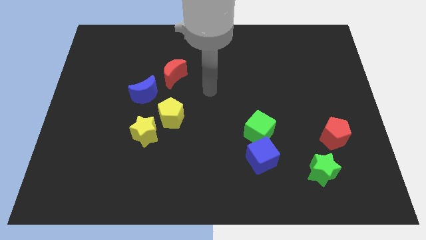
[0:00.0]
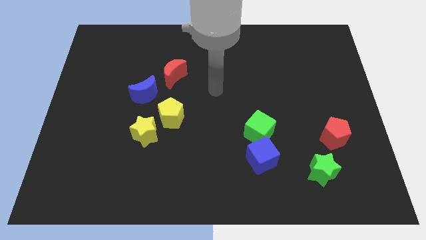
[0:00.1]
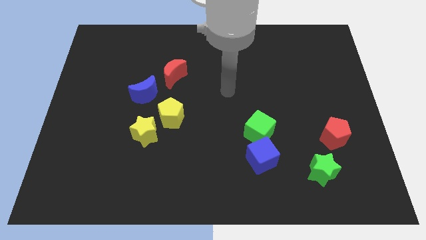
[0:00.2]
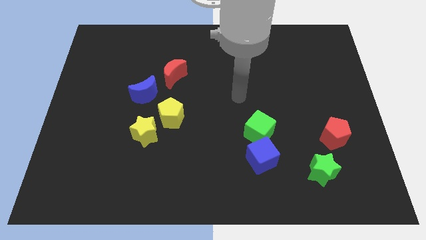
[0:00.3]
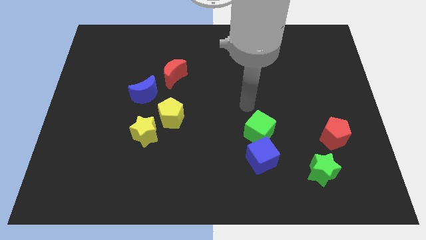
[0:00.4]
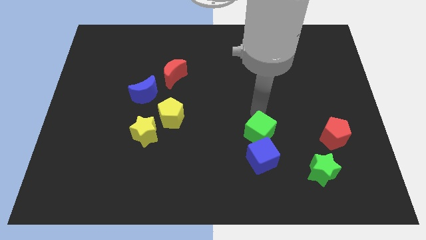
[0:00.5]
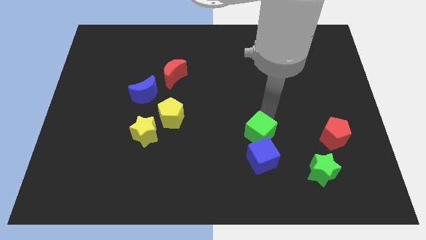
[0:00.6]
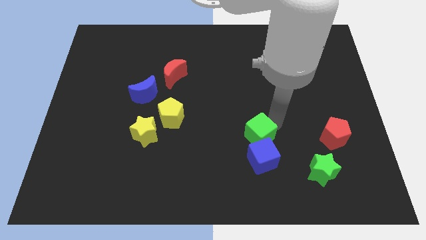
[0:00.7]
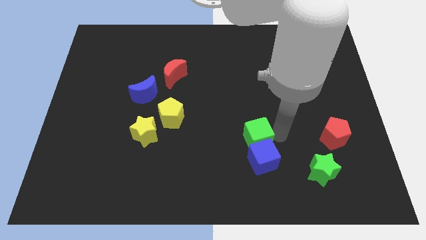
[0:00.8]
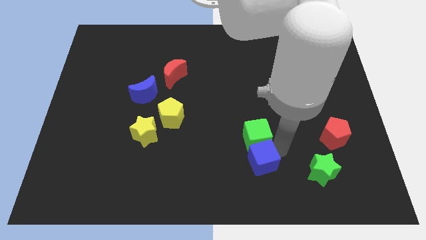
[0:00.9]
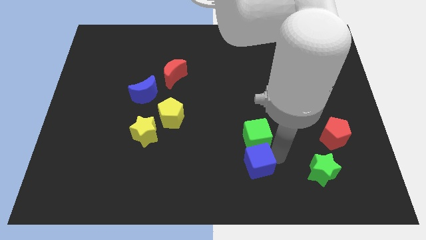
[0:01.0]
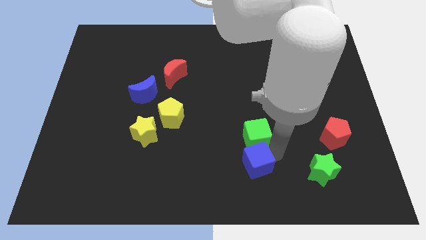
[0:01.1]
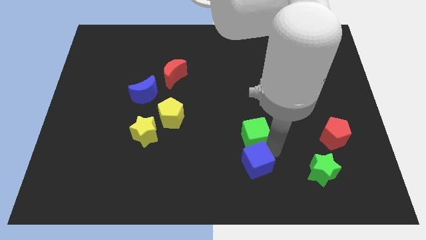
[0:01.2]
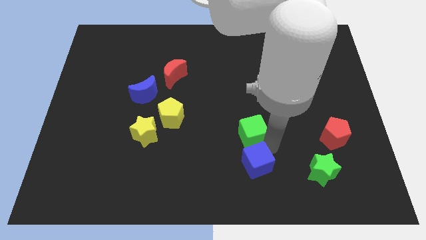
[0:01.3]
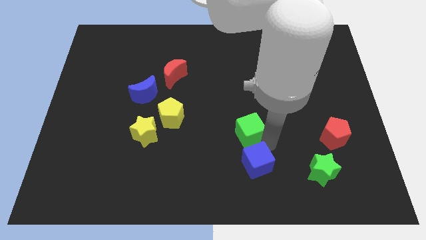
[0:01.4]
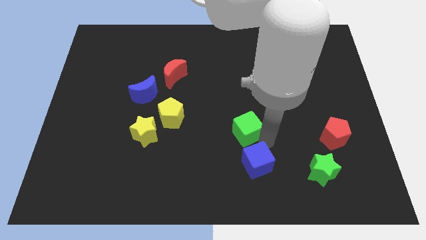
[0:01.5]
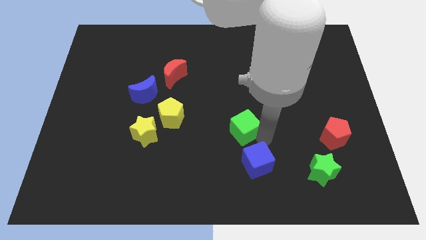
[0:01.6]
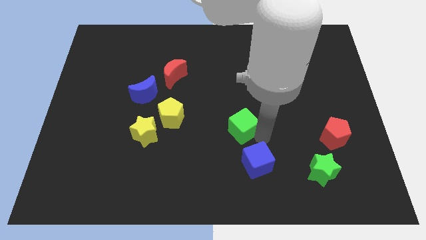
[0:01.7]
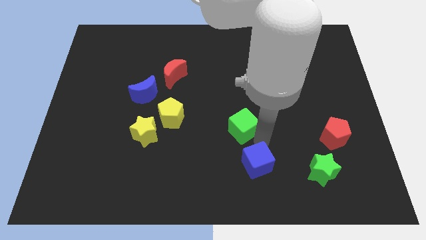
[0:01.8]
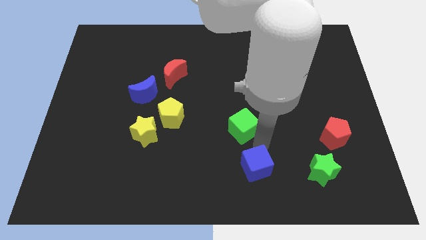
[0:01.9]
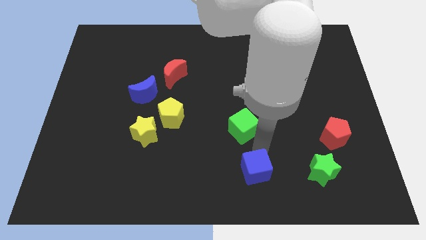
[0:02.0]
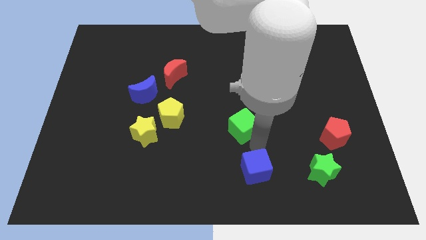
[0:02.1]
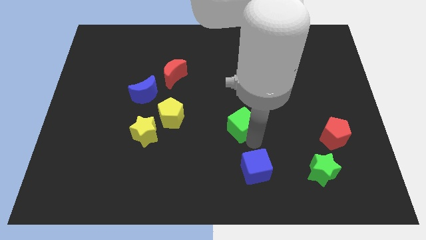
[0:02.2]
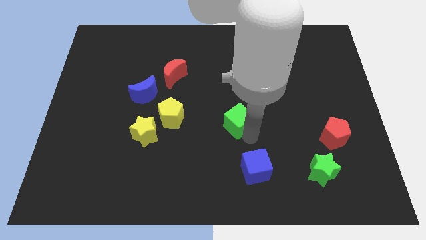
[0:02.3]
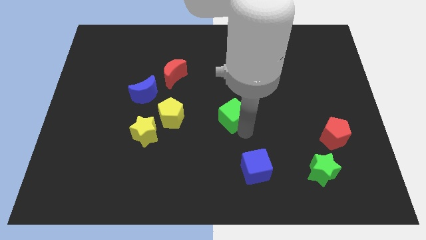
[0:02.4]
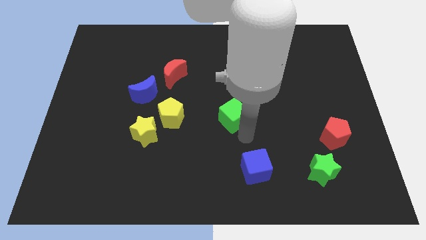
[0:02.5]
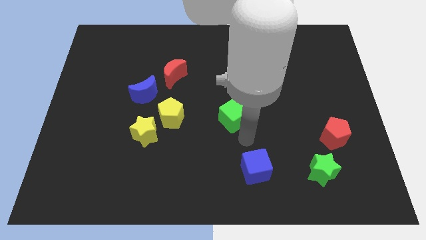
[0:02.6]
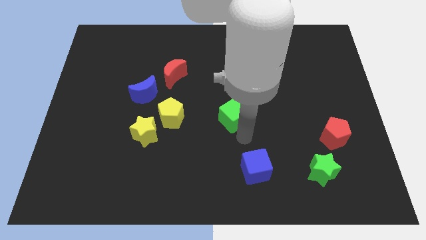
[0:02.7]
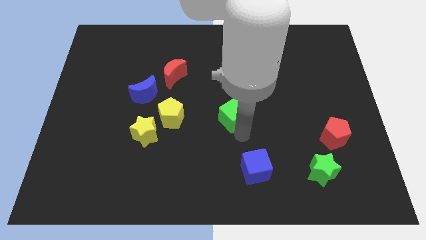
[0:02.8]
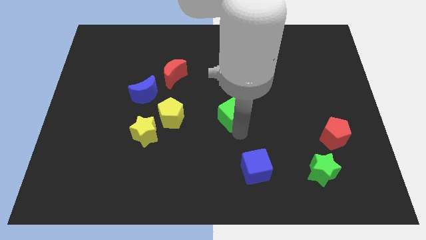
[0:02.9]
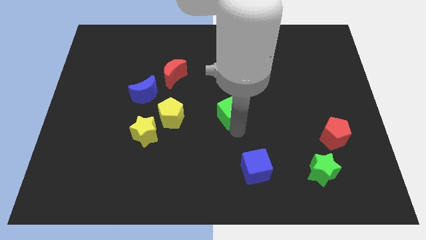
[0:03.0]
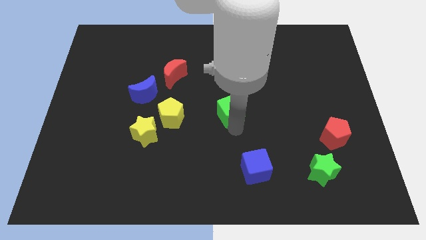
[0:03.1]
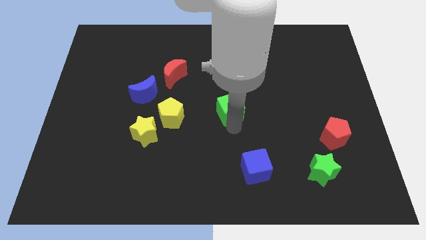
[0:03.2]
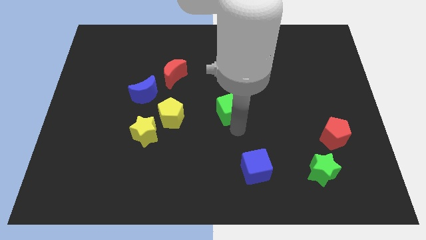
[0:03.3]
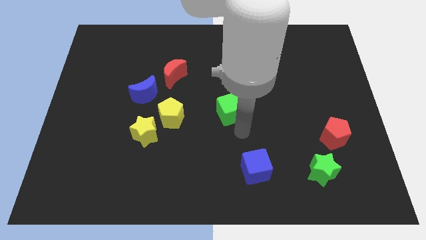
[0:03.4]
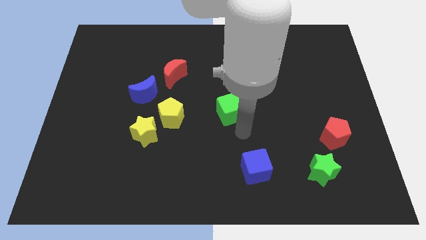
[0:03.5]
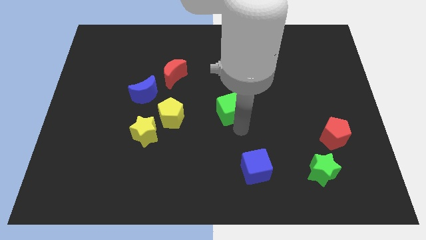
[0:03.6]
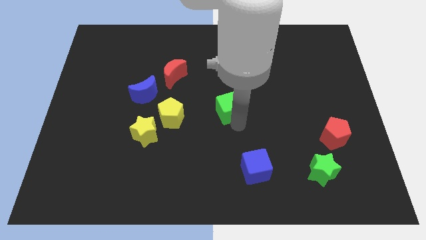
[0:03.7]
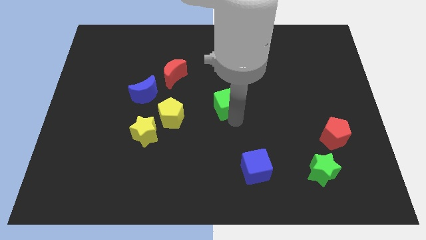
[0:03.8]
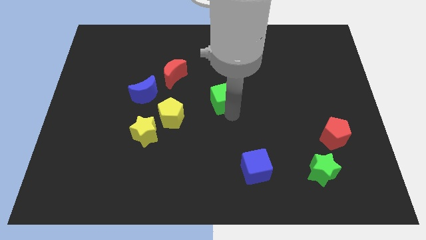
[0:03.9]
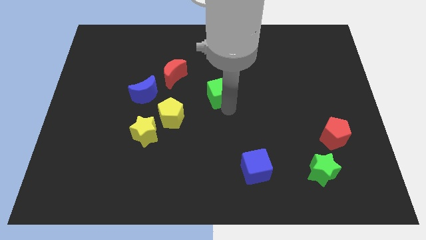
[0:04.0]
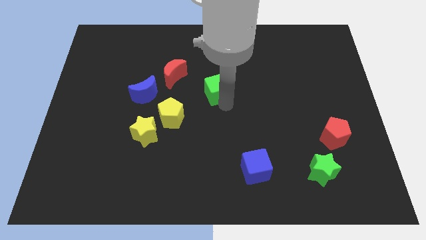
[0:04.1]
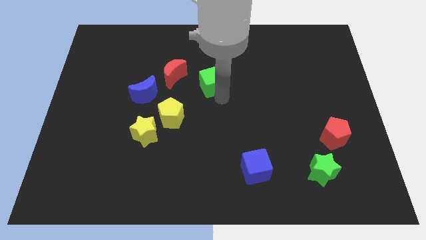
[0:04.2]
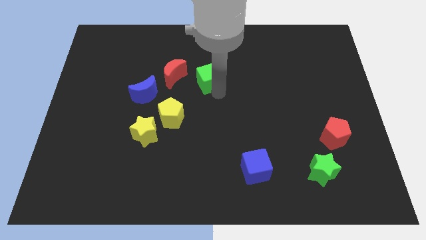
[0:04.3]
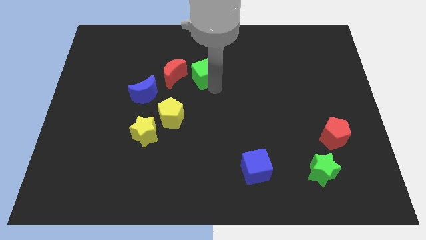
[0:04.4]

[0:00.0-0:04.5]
slide the green cube upwards and to the left

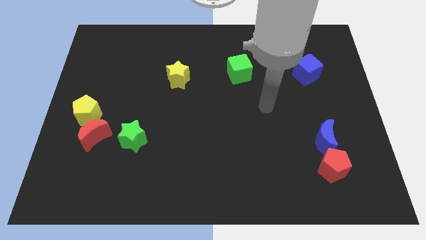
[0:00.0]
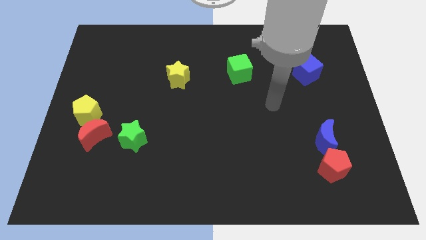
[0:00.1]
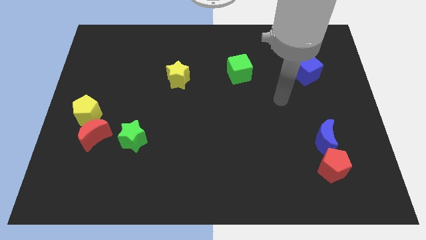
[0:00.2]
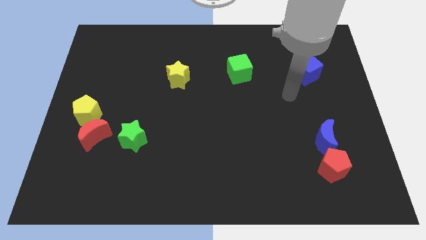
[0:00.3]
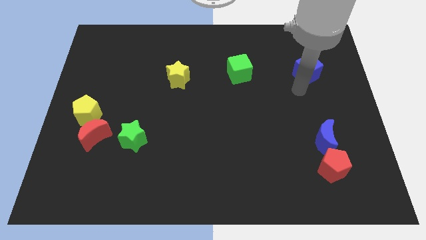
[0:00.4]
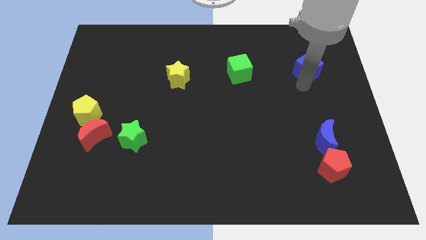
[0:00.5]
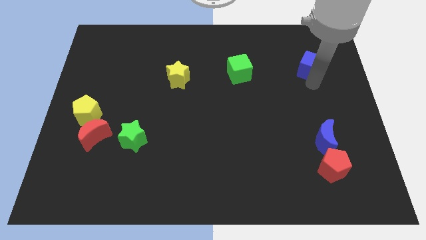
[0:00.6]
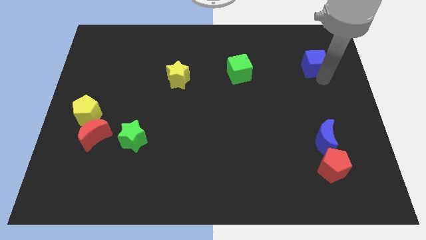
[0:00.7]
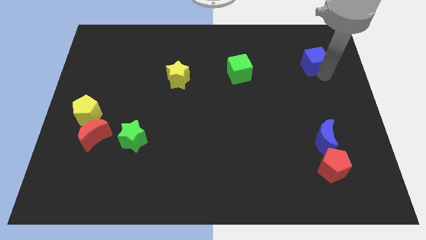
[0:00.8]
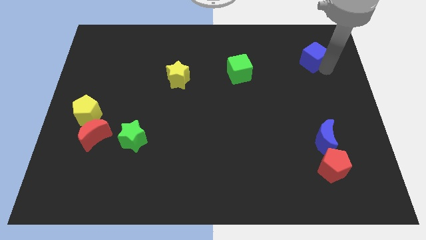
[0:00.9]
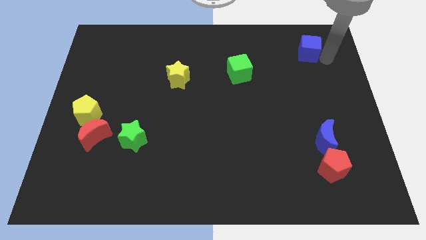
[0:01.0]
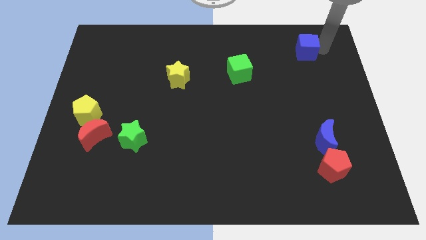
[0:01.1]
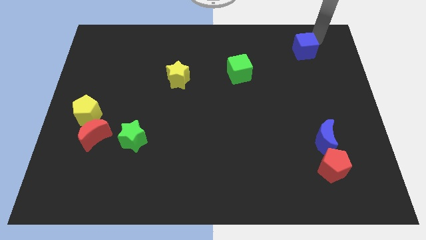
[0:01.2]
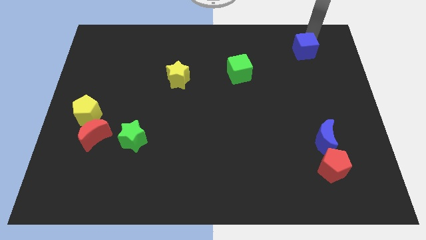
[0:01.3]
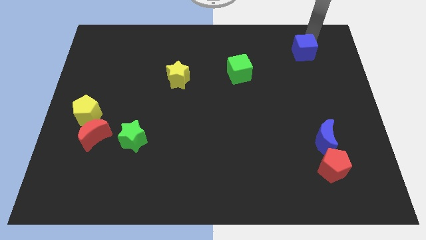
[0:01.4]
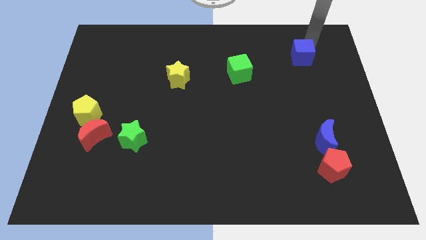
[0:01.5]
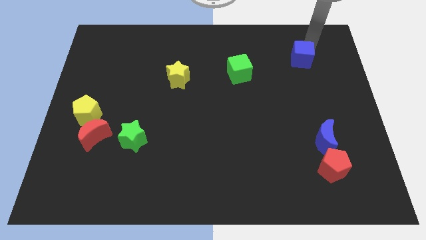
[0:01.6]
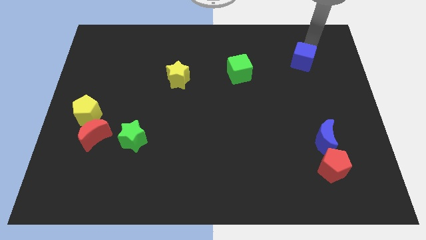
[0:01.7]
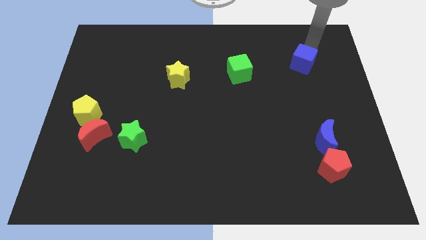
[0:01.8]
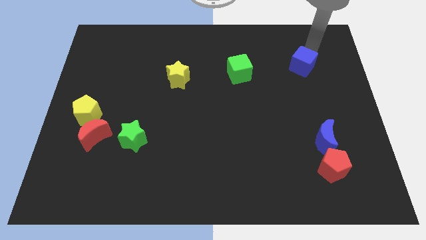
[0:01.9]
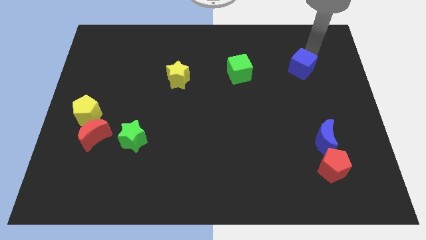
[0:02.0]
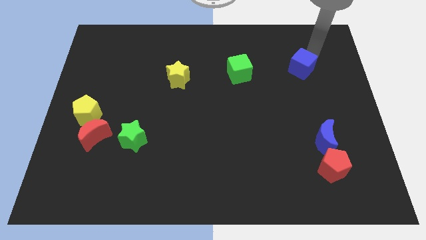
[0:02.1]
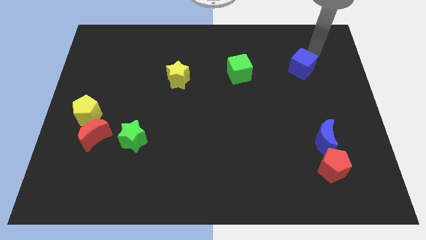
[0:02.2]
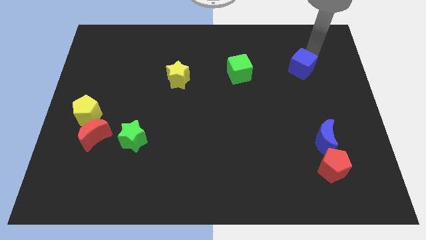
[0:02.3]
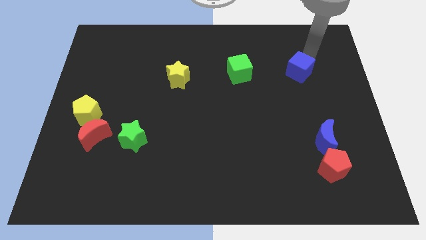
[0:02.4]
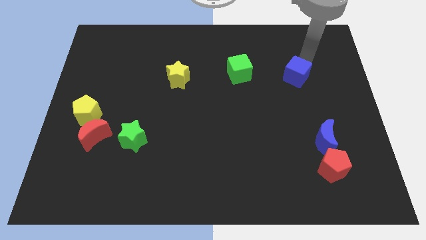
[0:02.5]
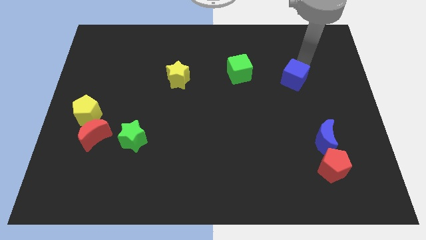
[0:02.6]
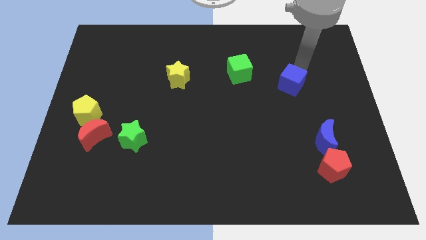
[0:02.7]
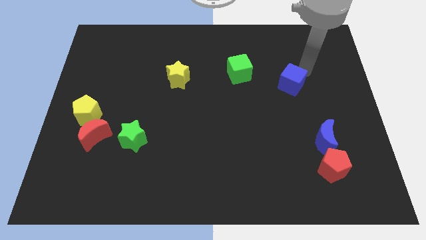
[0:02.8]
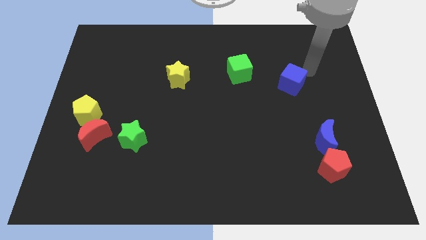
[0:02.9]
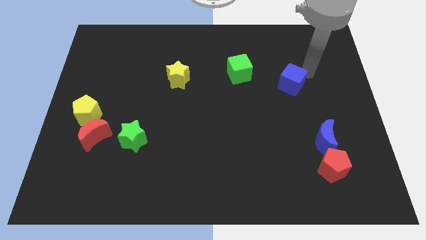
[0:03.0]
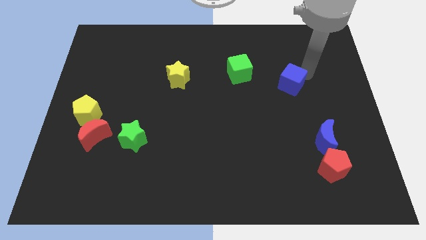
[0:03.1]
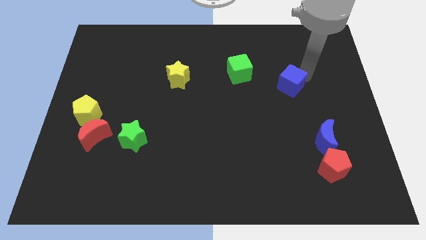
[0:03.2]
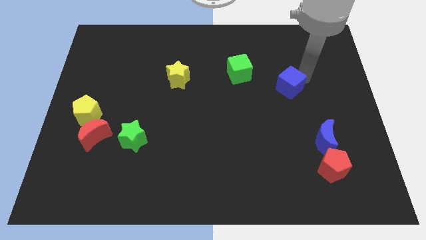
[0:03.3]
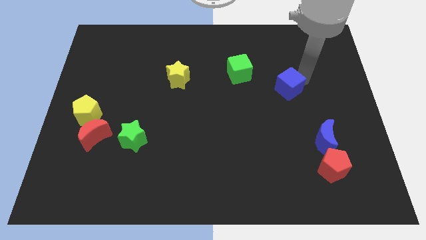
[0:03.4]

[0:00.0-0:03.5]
push the blue cube a little bit diagonally downwards and left

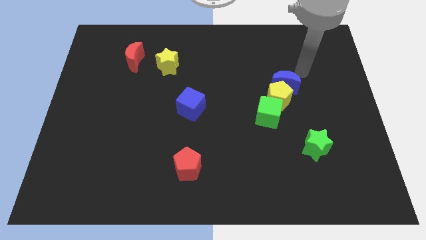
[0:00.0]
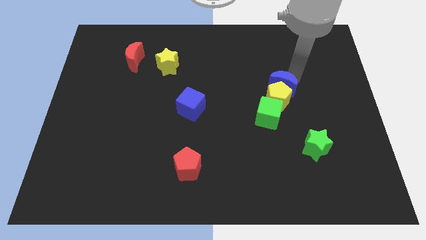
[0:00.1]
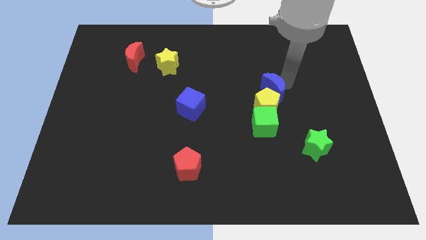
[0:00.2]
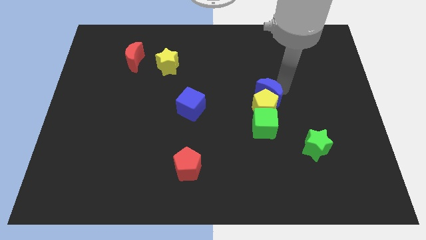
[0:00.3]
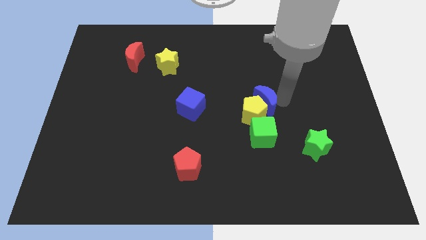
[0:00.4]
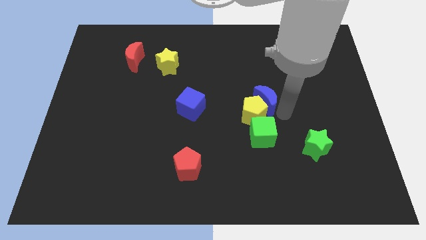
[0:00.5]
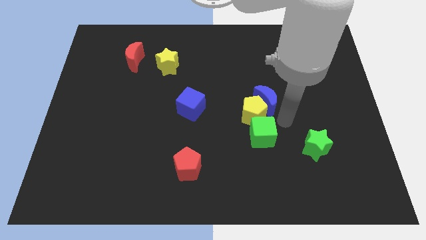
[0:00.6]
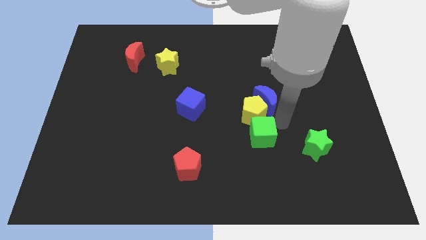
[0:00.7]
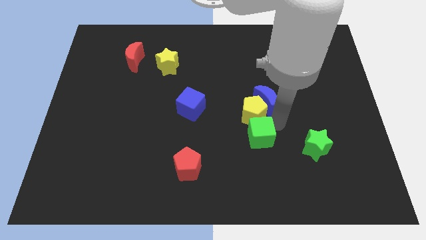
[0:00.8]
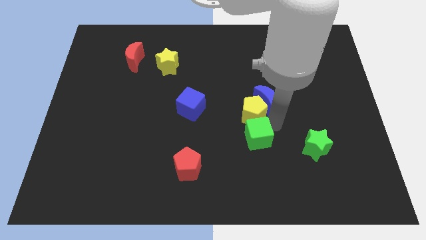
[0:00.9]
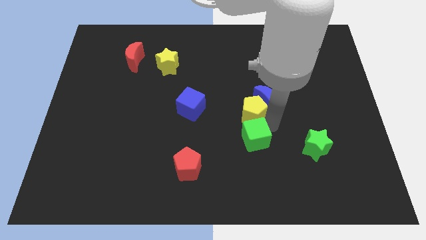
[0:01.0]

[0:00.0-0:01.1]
slightly move the green cube down and to the left
